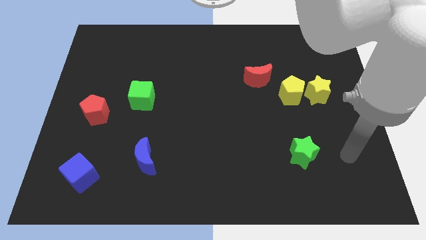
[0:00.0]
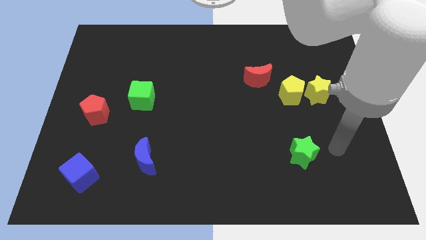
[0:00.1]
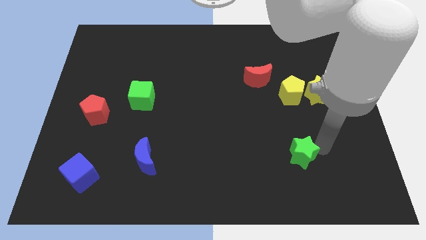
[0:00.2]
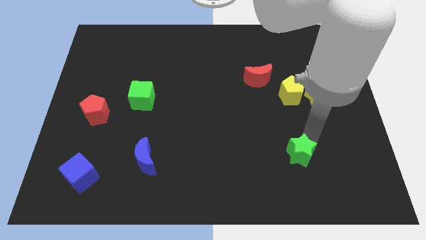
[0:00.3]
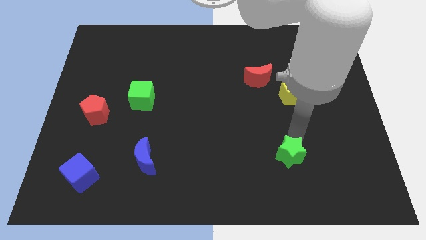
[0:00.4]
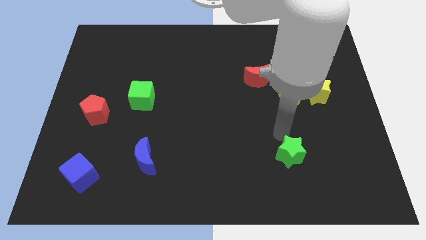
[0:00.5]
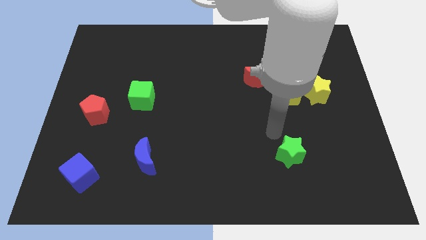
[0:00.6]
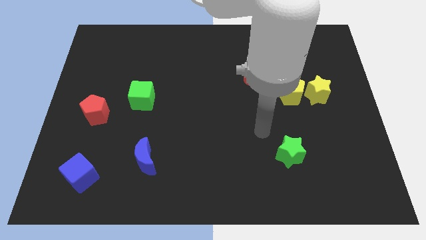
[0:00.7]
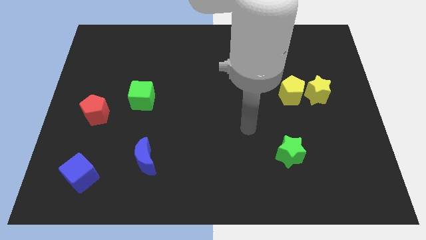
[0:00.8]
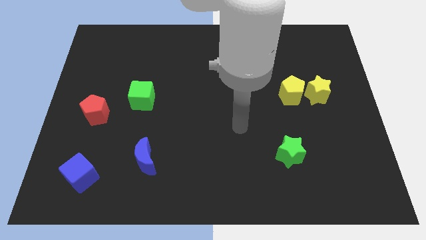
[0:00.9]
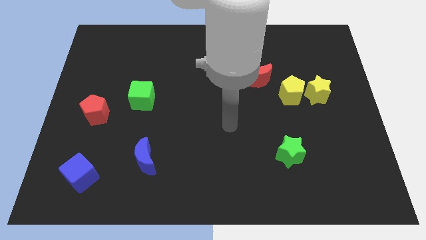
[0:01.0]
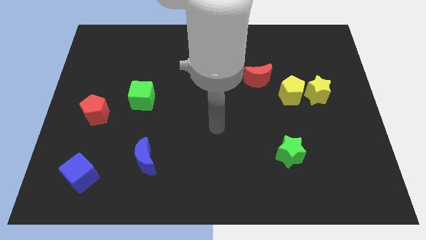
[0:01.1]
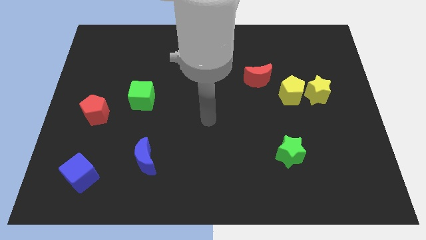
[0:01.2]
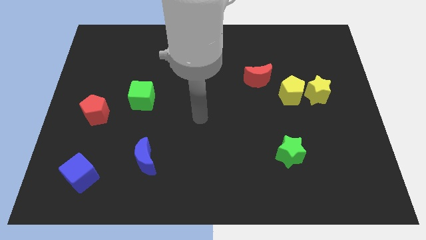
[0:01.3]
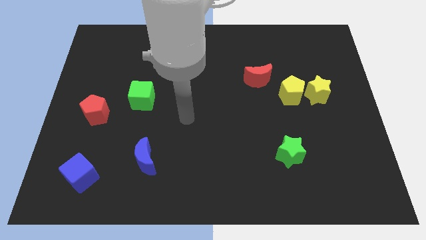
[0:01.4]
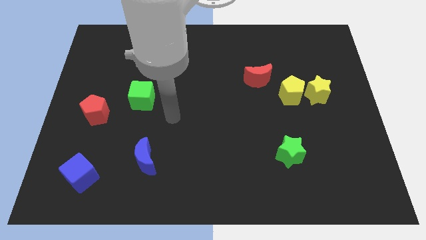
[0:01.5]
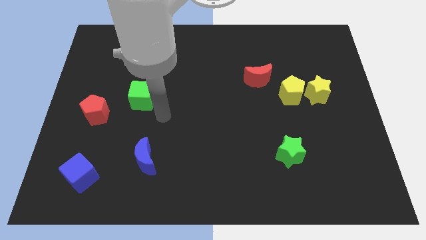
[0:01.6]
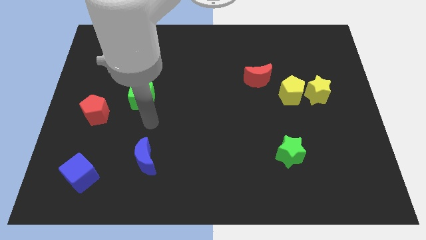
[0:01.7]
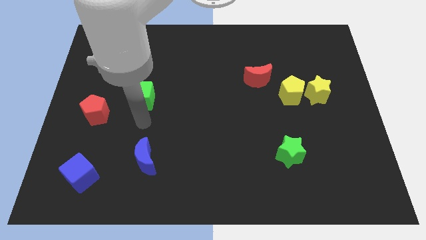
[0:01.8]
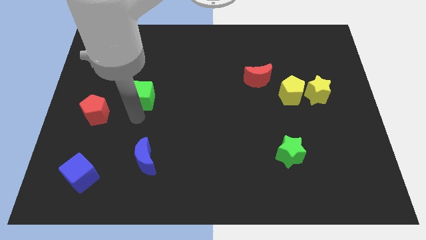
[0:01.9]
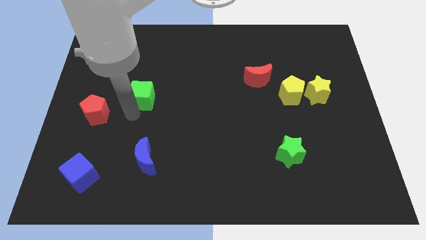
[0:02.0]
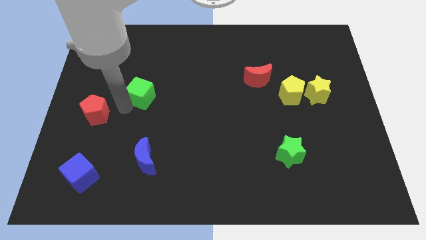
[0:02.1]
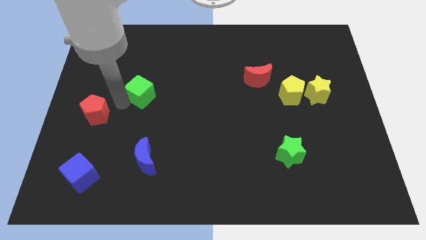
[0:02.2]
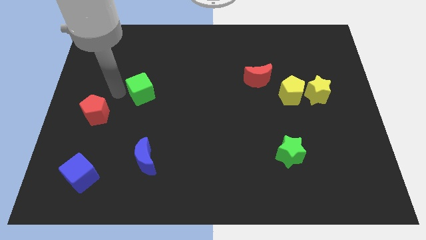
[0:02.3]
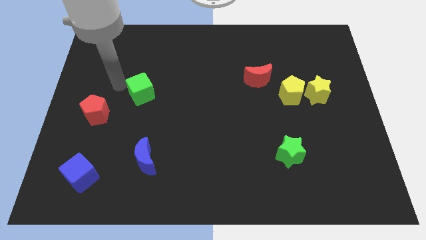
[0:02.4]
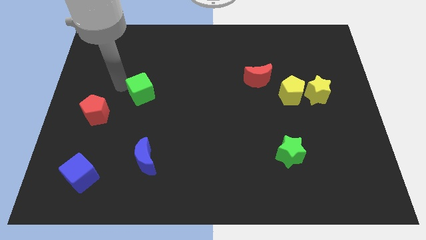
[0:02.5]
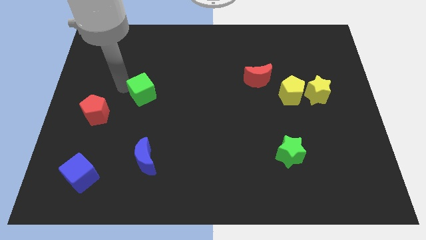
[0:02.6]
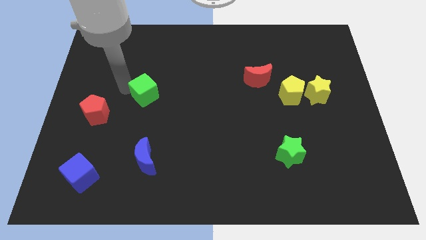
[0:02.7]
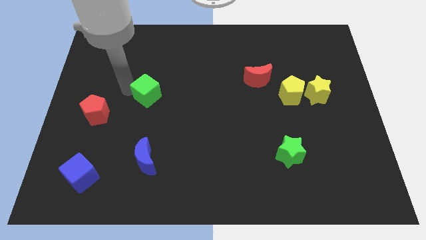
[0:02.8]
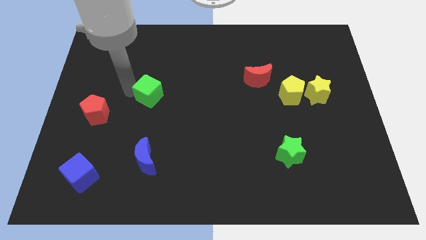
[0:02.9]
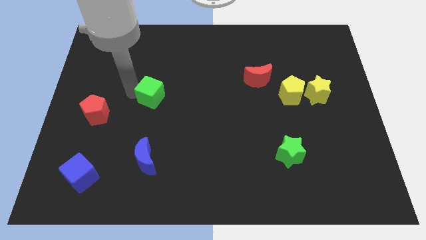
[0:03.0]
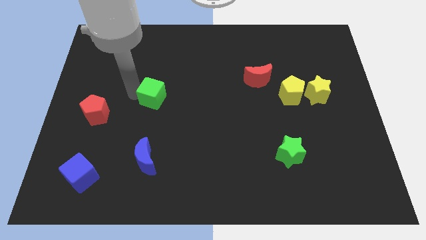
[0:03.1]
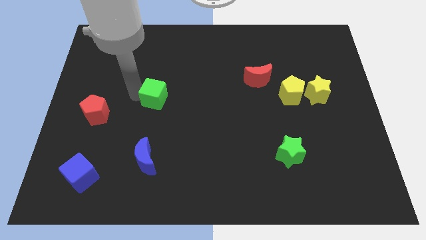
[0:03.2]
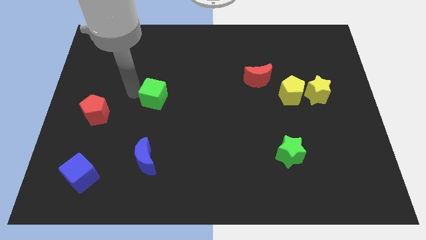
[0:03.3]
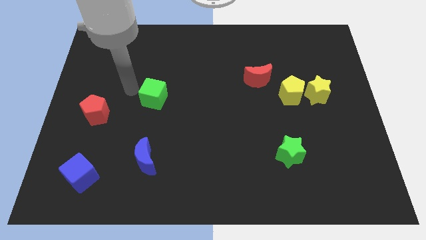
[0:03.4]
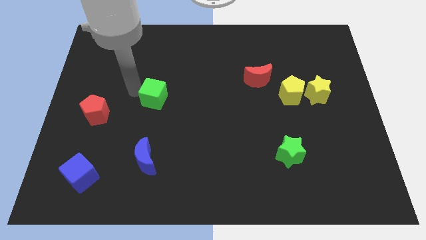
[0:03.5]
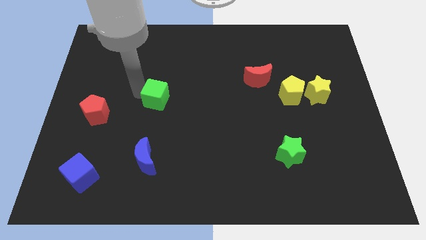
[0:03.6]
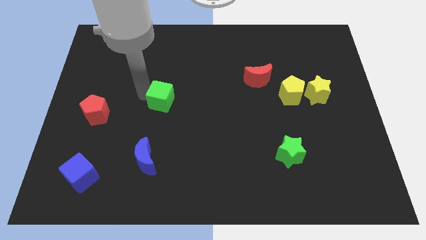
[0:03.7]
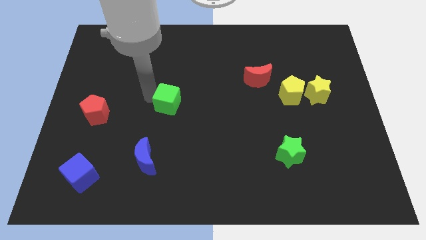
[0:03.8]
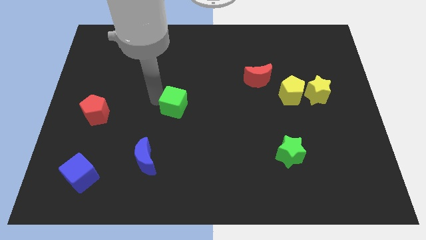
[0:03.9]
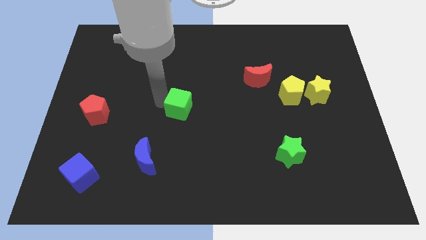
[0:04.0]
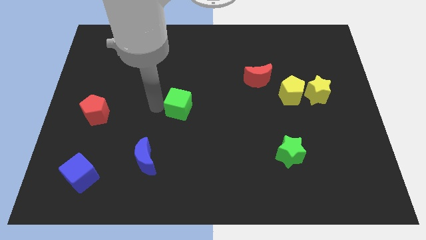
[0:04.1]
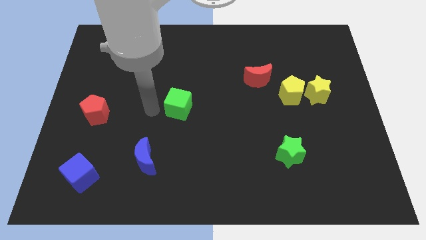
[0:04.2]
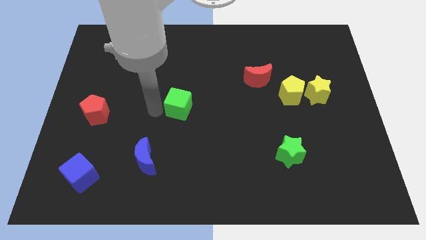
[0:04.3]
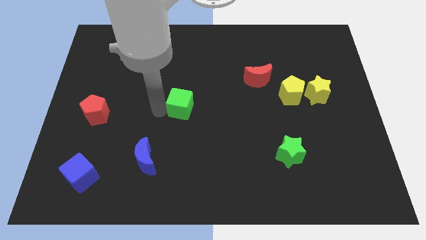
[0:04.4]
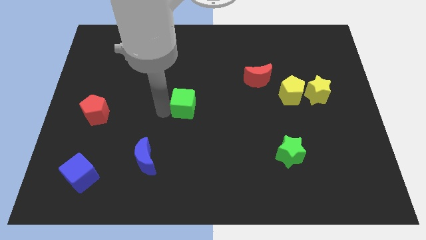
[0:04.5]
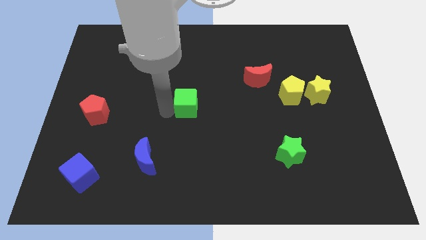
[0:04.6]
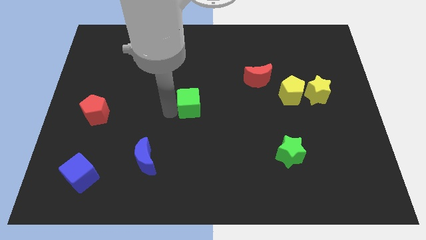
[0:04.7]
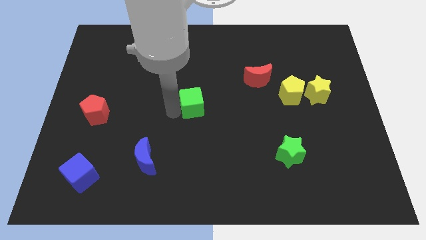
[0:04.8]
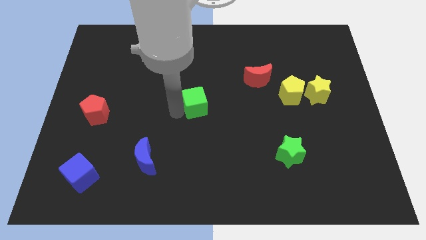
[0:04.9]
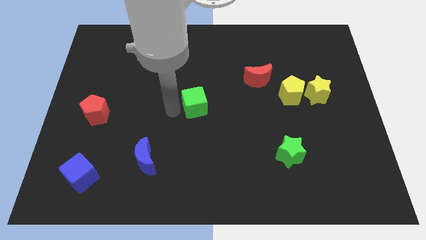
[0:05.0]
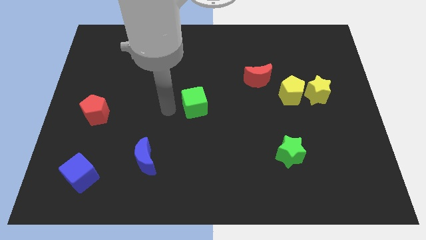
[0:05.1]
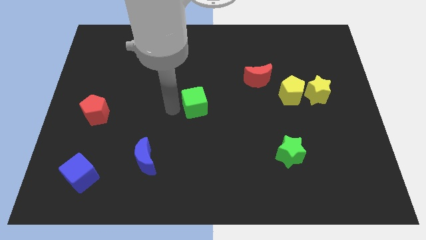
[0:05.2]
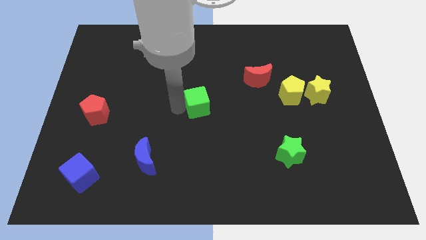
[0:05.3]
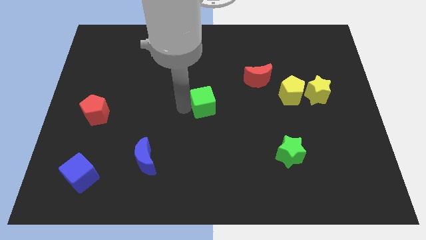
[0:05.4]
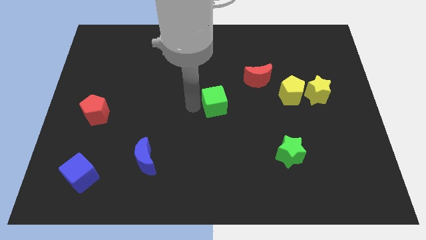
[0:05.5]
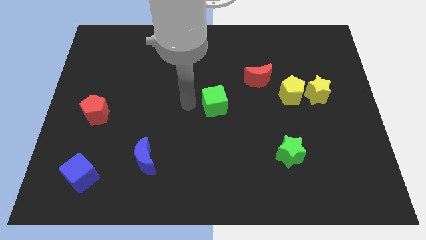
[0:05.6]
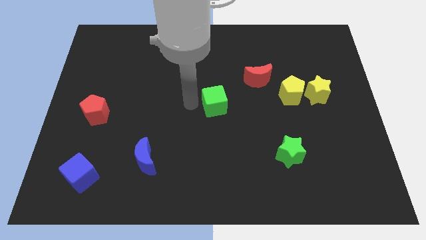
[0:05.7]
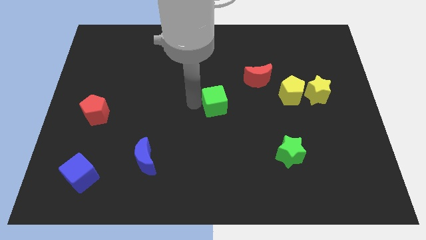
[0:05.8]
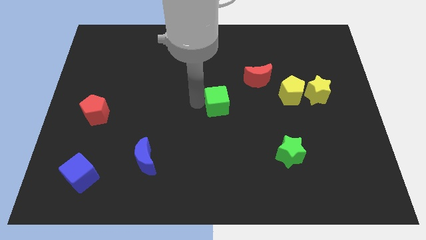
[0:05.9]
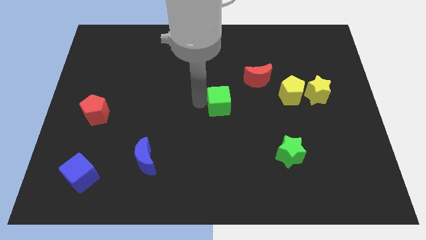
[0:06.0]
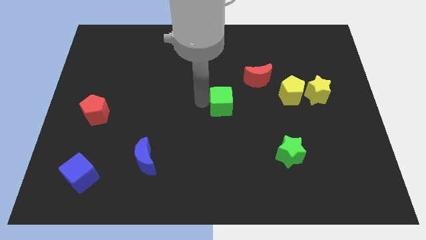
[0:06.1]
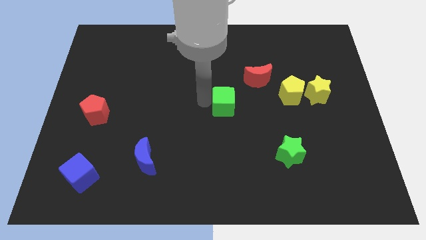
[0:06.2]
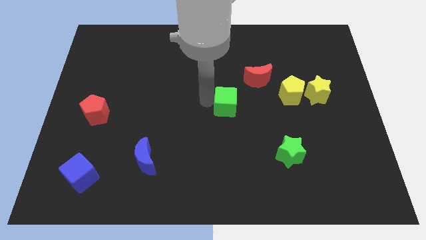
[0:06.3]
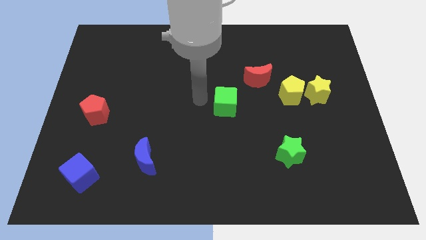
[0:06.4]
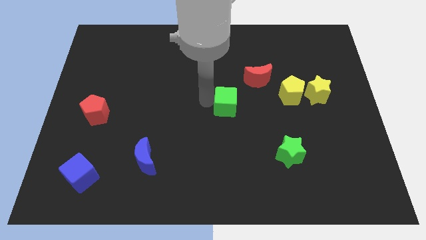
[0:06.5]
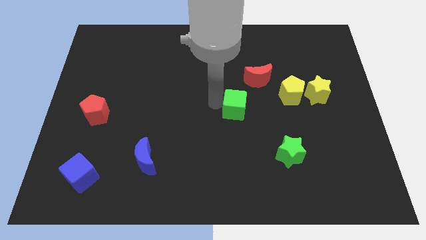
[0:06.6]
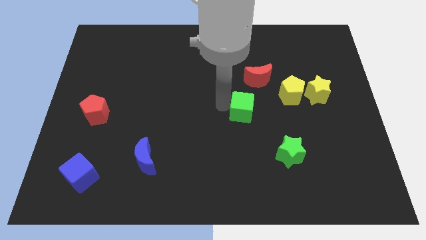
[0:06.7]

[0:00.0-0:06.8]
slide the green cube to the bottom side of the red moon

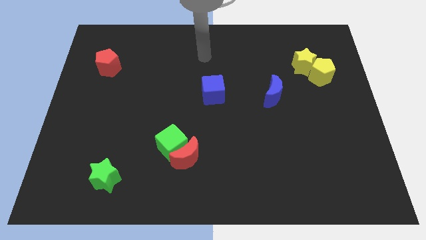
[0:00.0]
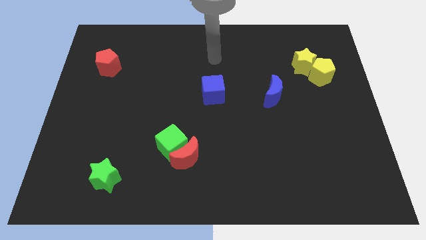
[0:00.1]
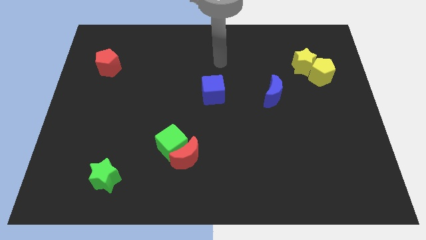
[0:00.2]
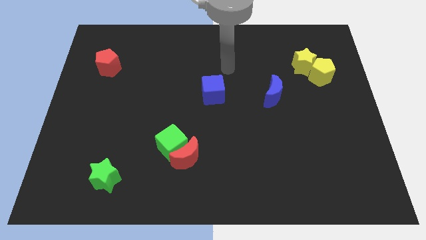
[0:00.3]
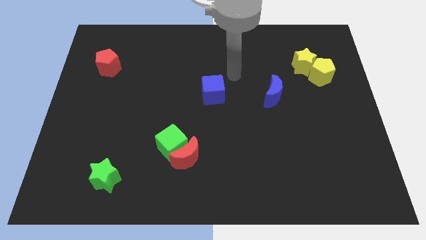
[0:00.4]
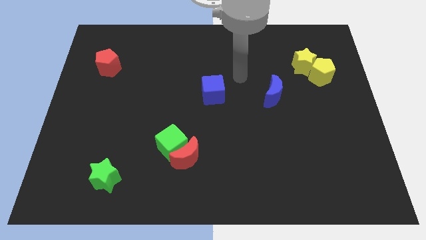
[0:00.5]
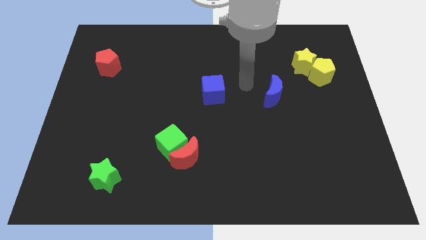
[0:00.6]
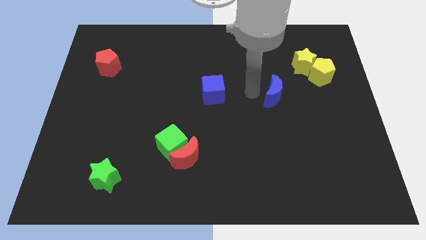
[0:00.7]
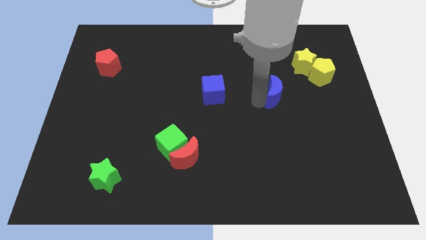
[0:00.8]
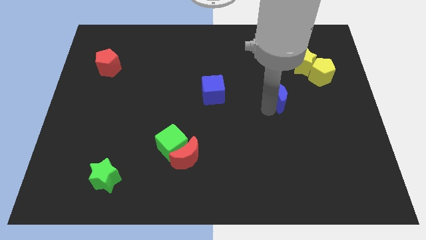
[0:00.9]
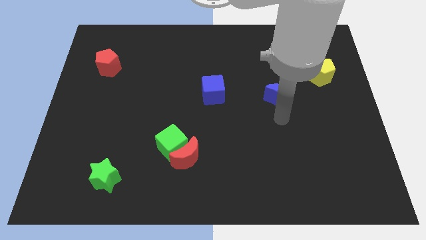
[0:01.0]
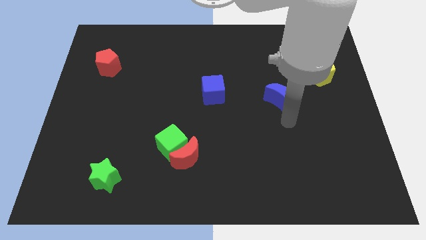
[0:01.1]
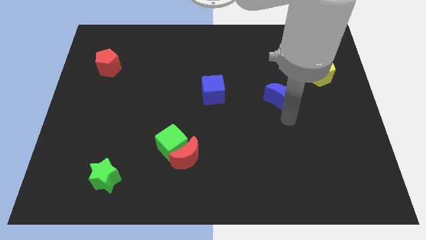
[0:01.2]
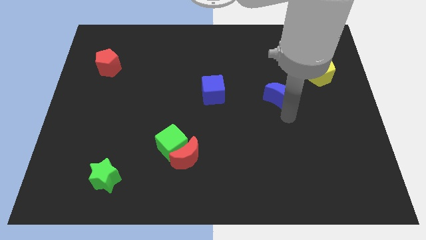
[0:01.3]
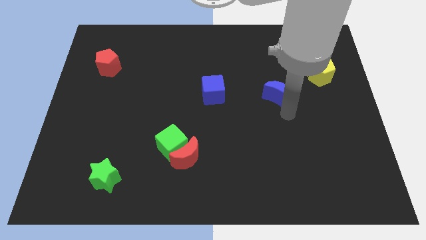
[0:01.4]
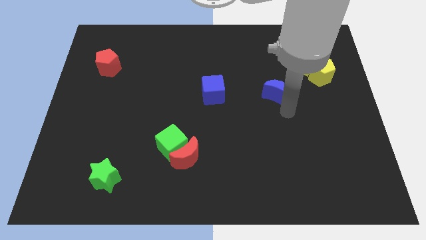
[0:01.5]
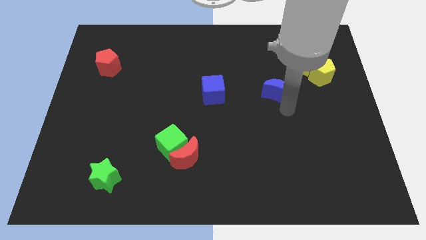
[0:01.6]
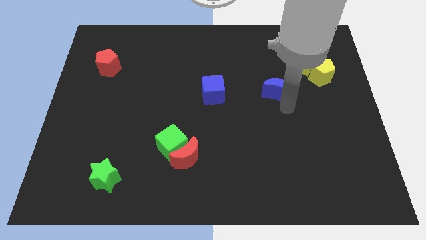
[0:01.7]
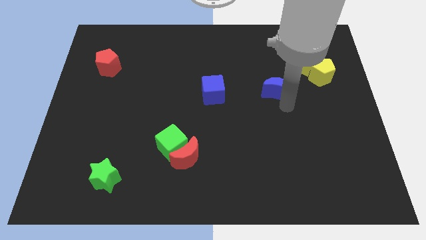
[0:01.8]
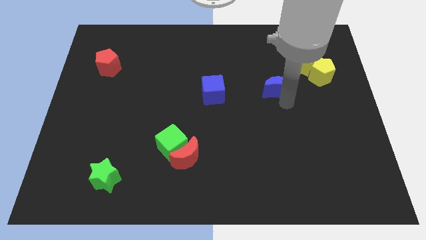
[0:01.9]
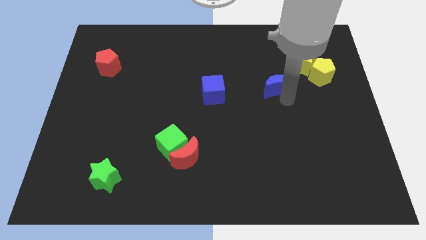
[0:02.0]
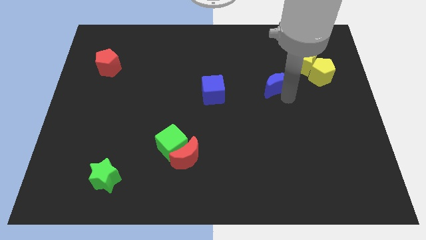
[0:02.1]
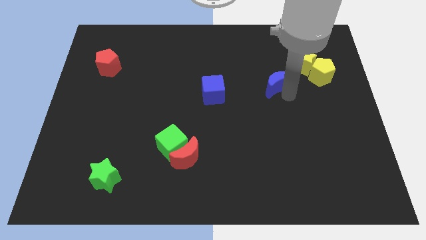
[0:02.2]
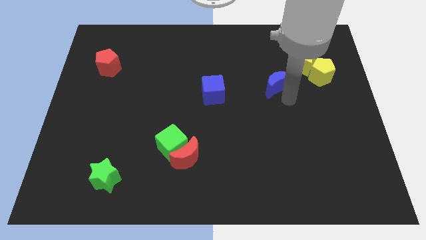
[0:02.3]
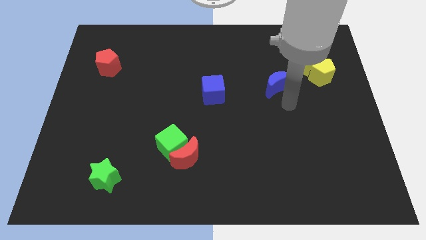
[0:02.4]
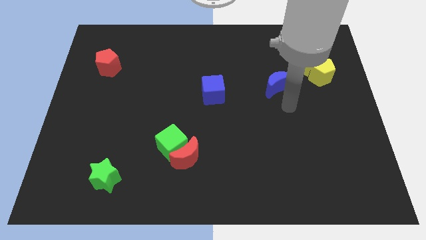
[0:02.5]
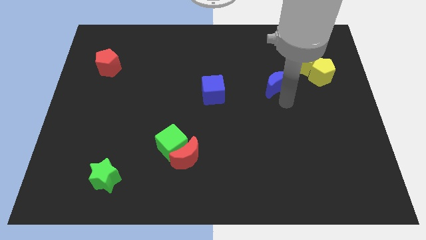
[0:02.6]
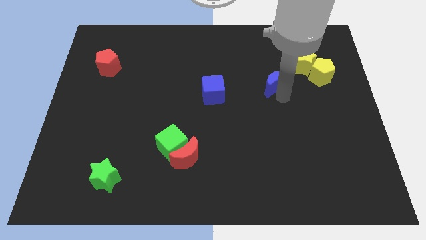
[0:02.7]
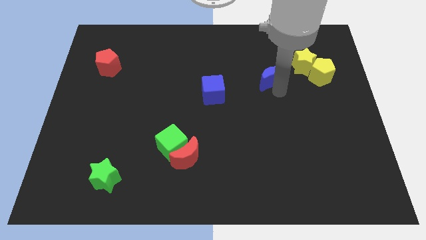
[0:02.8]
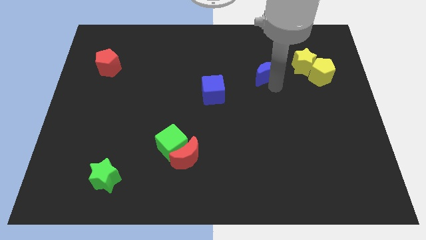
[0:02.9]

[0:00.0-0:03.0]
put the blue moon just left of the yellow star
